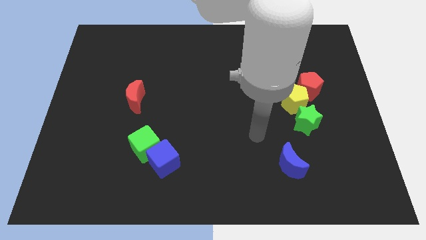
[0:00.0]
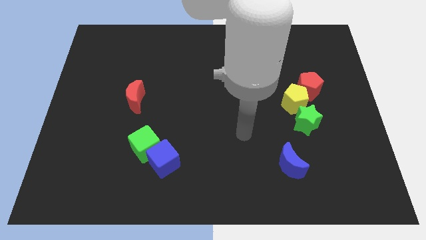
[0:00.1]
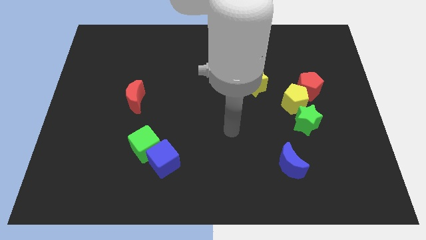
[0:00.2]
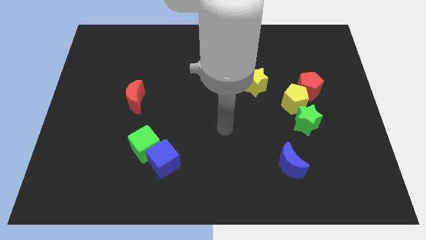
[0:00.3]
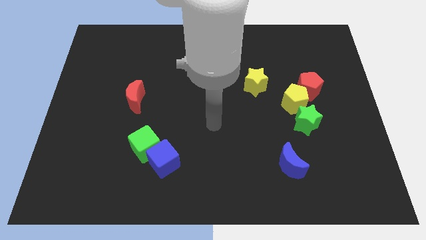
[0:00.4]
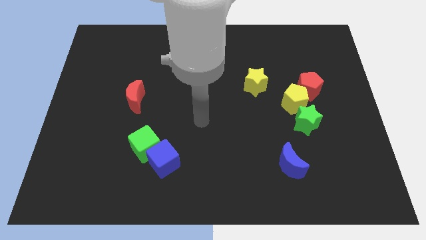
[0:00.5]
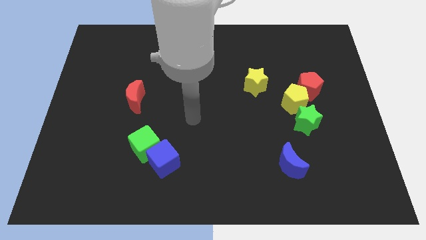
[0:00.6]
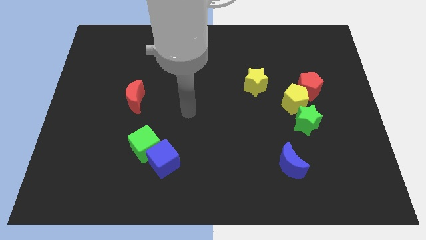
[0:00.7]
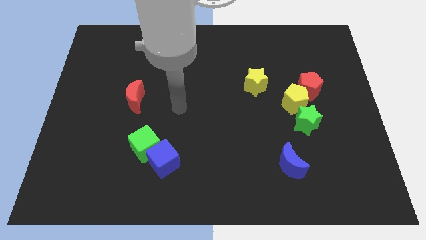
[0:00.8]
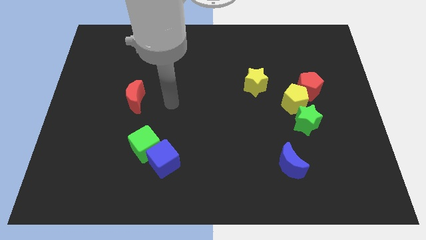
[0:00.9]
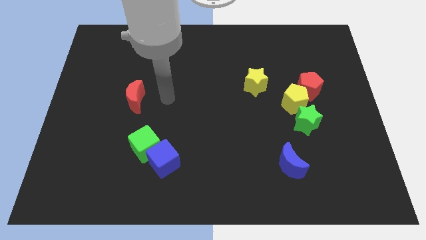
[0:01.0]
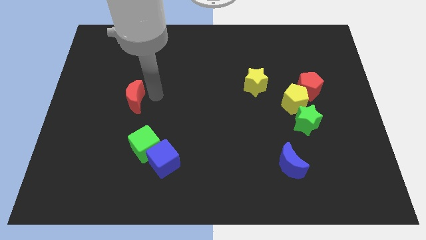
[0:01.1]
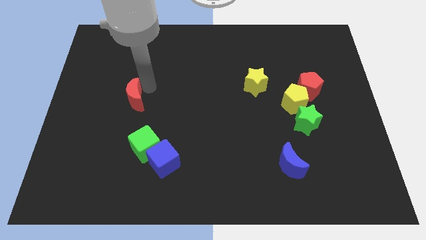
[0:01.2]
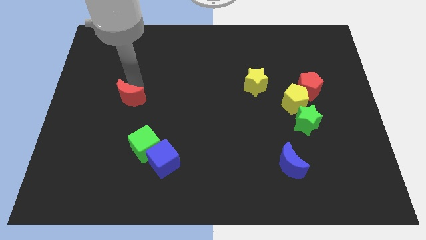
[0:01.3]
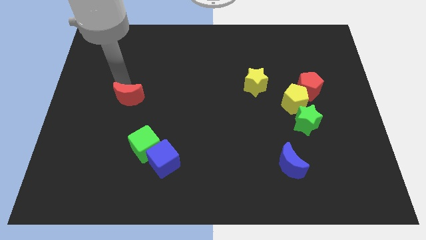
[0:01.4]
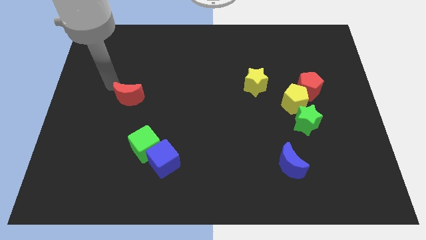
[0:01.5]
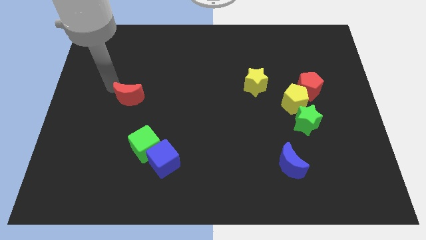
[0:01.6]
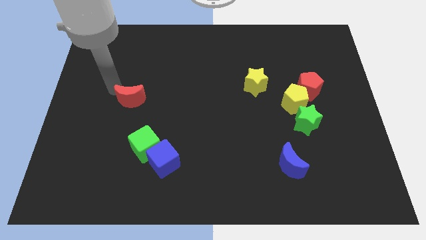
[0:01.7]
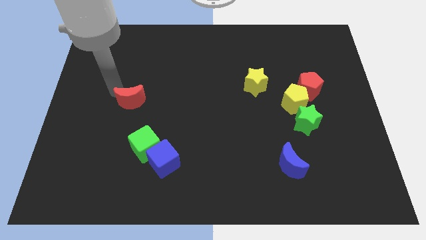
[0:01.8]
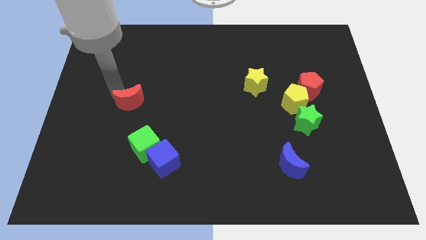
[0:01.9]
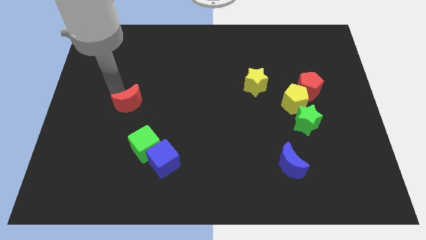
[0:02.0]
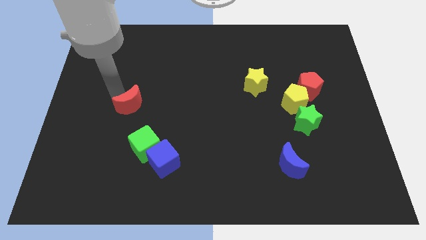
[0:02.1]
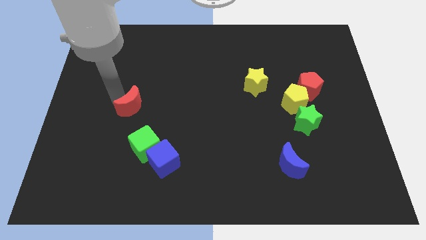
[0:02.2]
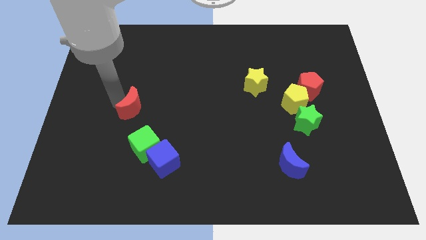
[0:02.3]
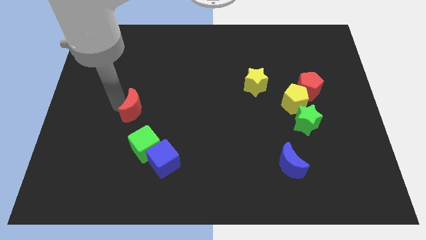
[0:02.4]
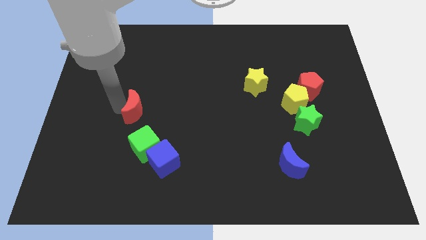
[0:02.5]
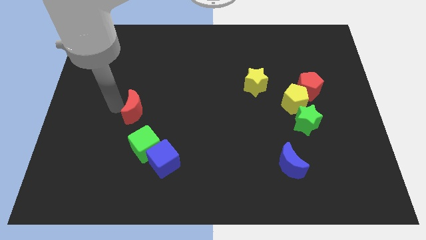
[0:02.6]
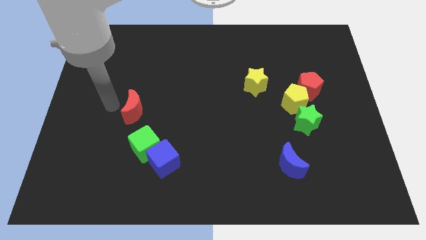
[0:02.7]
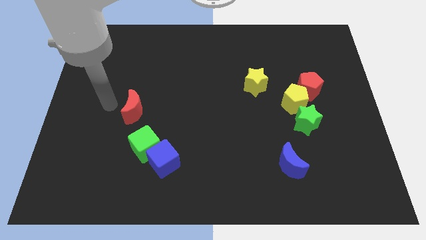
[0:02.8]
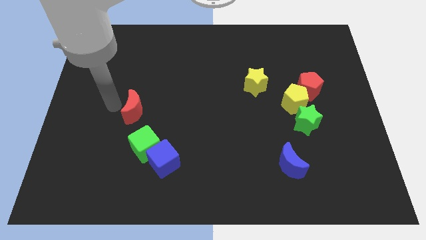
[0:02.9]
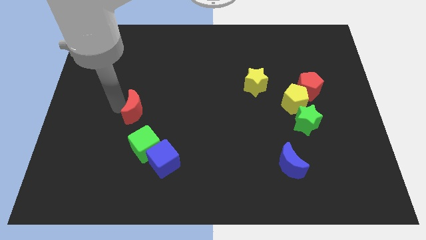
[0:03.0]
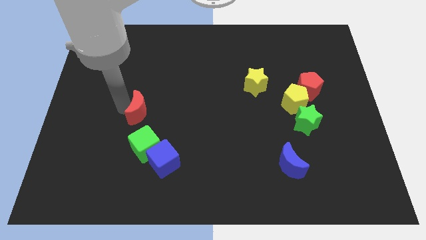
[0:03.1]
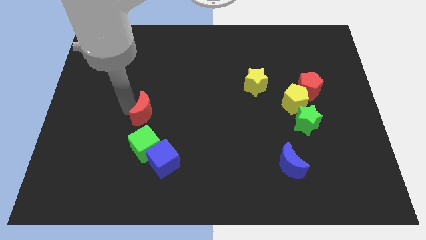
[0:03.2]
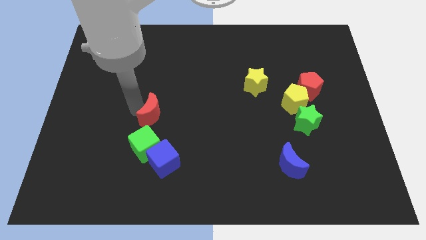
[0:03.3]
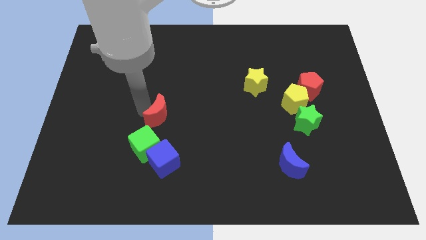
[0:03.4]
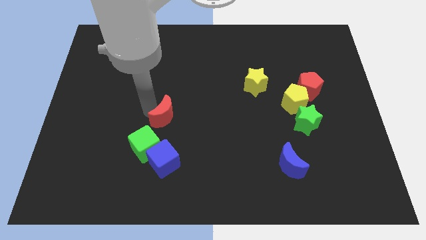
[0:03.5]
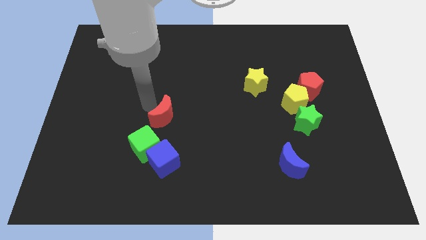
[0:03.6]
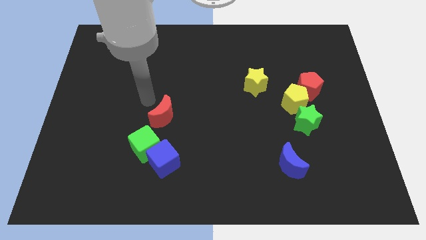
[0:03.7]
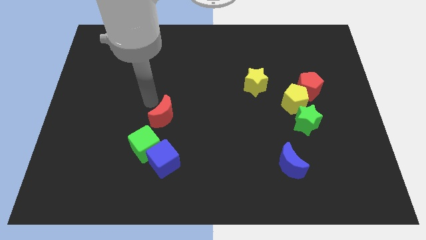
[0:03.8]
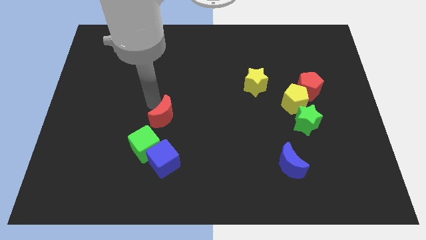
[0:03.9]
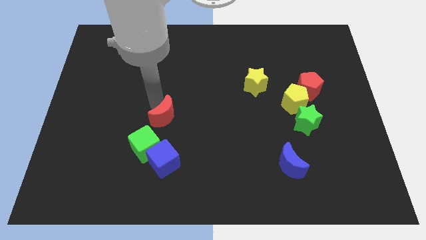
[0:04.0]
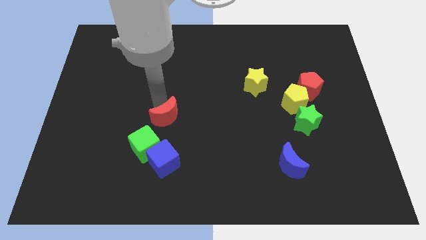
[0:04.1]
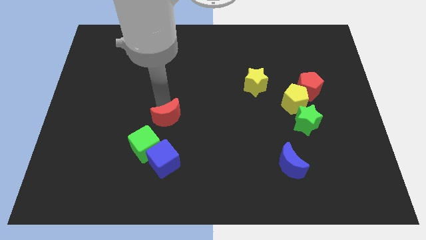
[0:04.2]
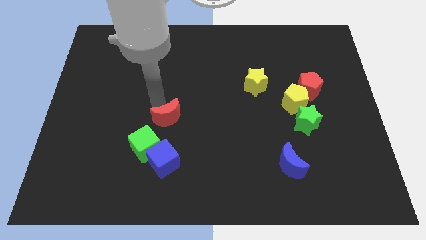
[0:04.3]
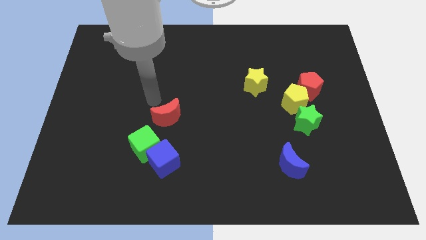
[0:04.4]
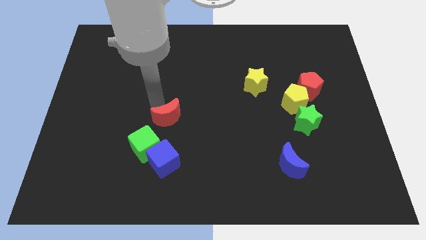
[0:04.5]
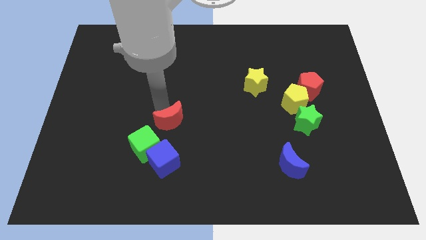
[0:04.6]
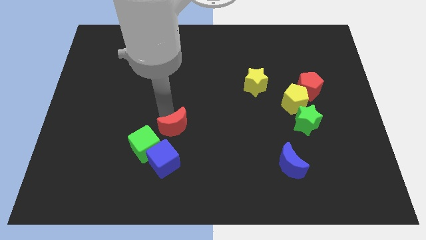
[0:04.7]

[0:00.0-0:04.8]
push the red moon diagonally up and to the right of the blue cube

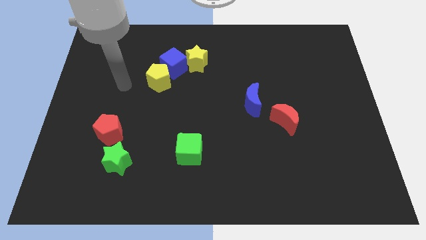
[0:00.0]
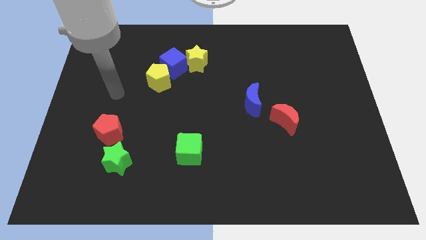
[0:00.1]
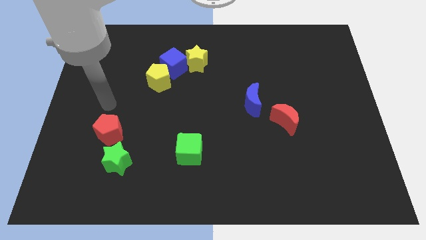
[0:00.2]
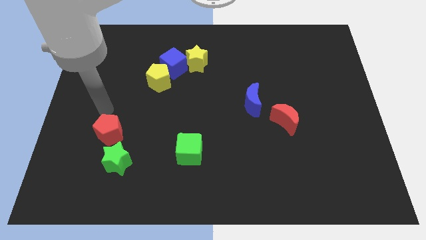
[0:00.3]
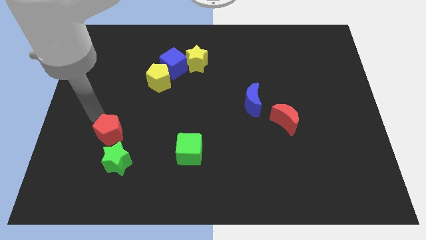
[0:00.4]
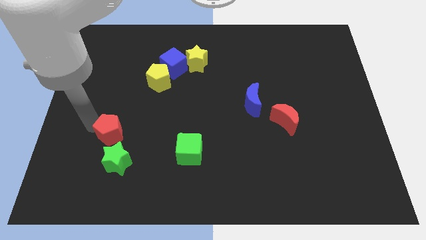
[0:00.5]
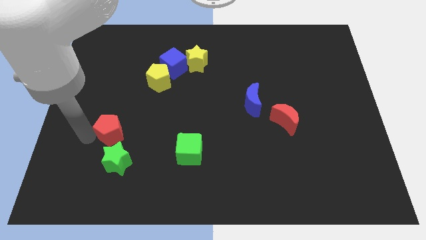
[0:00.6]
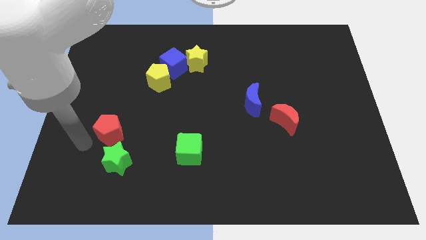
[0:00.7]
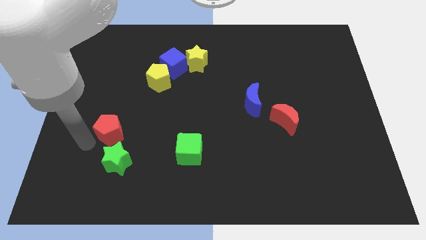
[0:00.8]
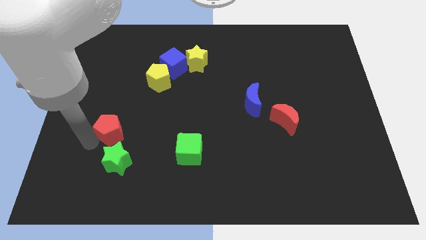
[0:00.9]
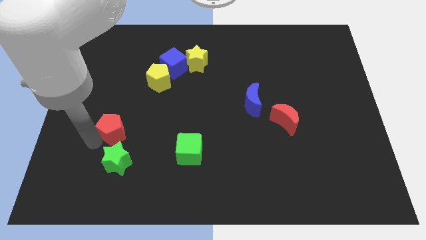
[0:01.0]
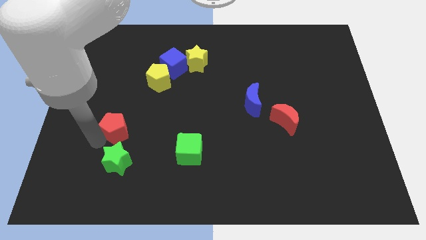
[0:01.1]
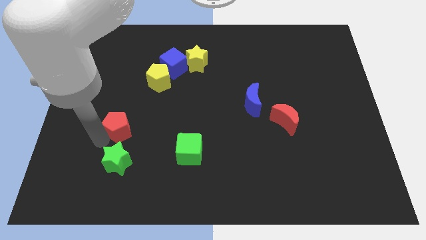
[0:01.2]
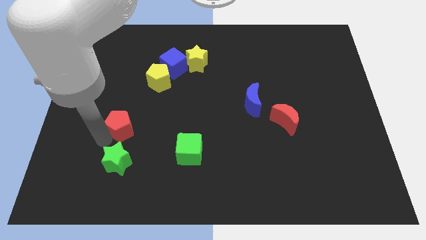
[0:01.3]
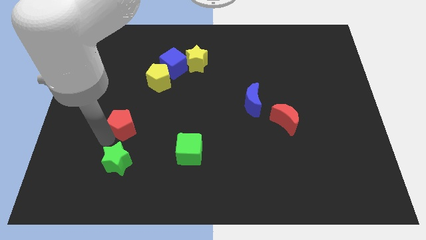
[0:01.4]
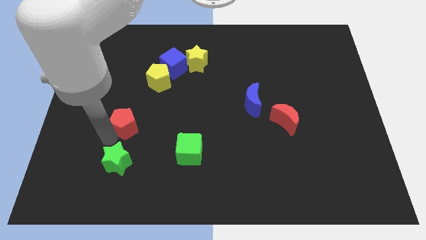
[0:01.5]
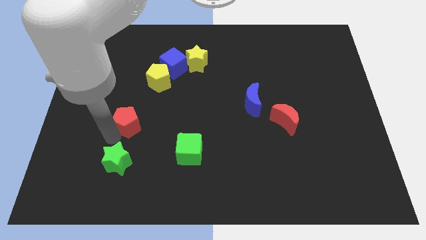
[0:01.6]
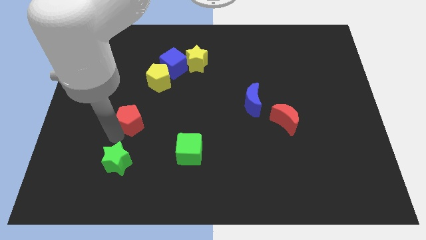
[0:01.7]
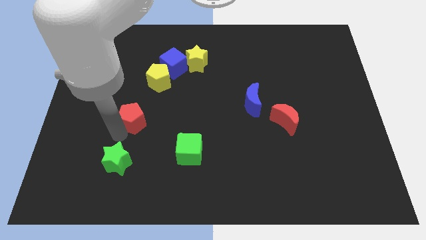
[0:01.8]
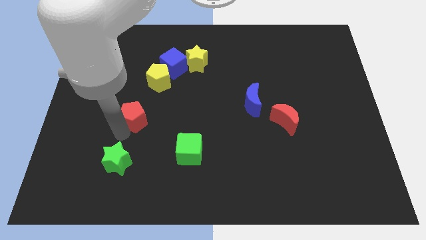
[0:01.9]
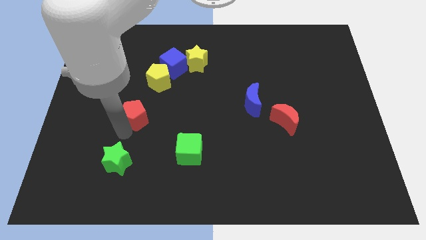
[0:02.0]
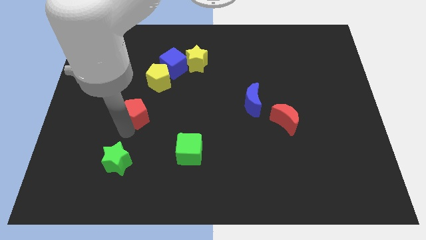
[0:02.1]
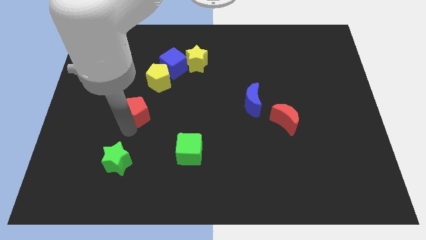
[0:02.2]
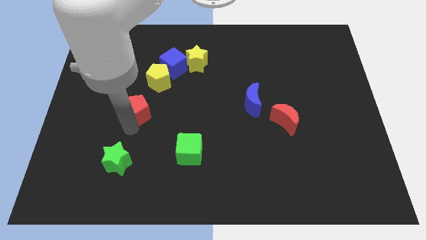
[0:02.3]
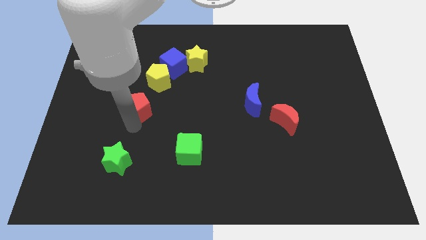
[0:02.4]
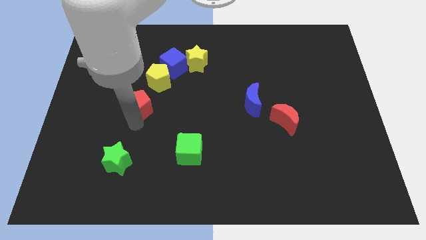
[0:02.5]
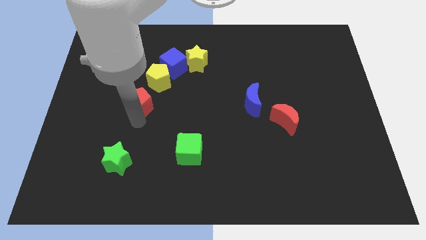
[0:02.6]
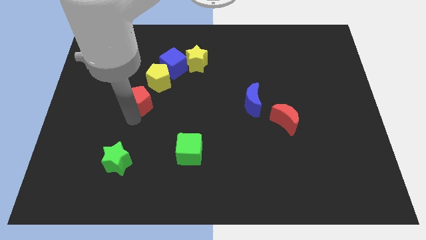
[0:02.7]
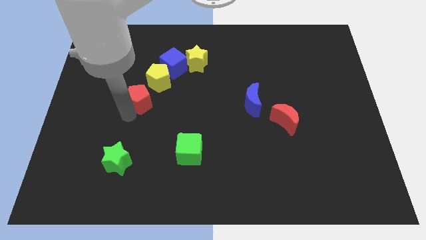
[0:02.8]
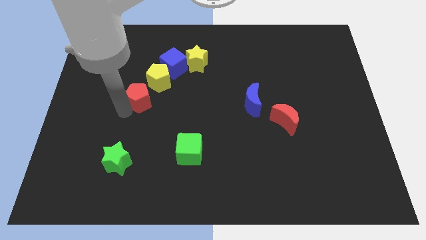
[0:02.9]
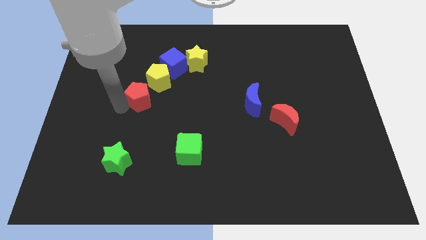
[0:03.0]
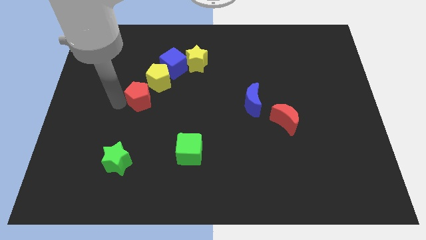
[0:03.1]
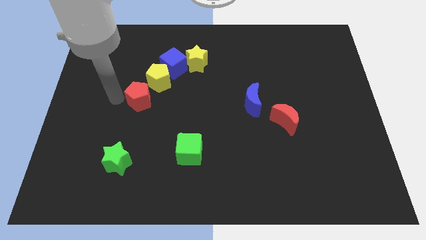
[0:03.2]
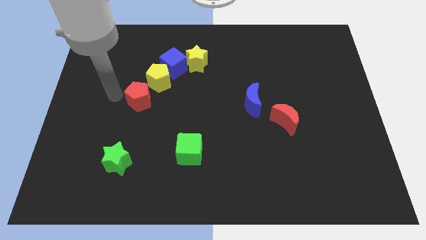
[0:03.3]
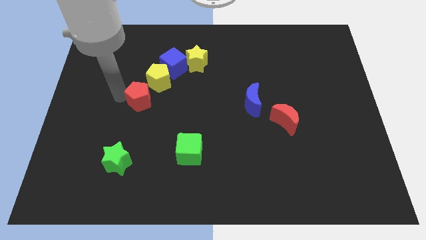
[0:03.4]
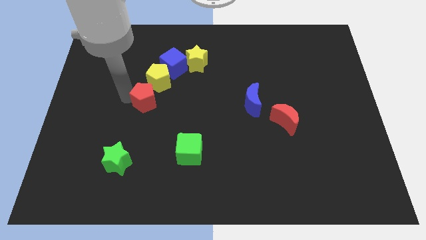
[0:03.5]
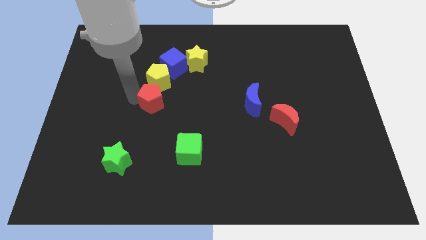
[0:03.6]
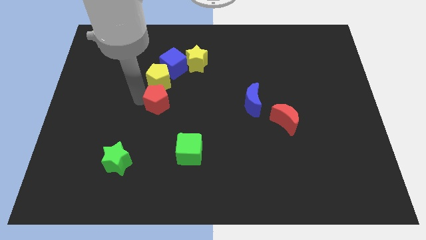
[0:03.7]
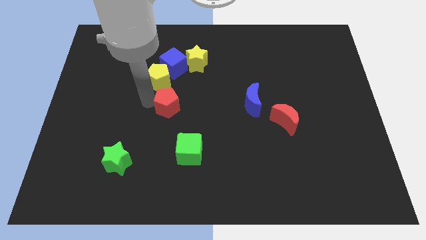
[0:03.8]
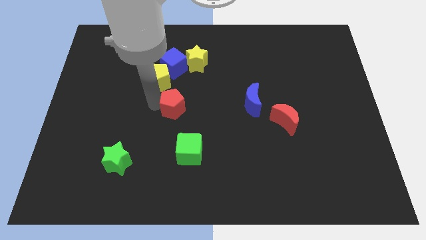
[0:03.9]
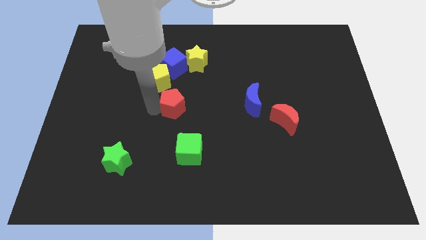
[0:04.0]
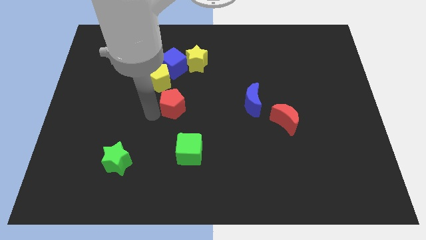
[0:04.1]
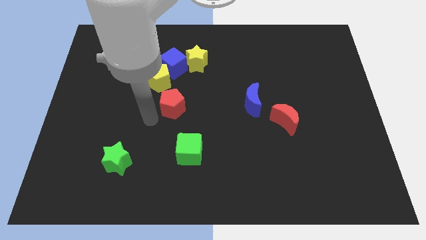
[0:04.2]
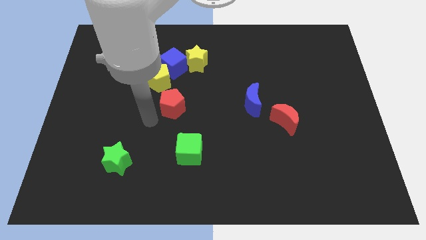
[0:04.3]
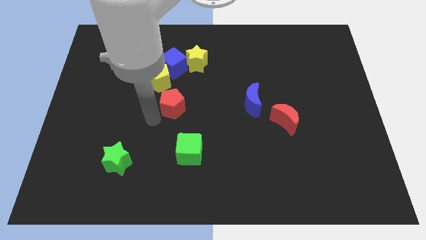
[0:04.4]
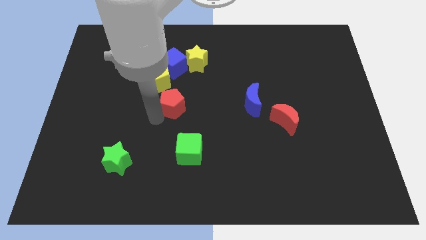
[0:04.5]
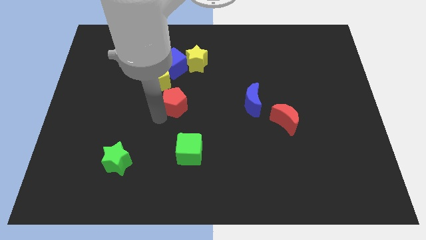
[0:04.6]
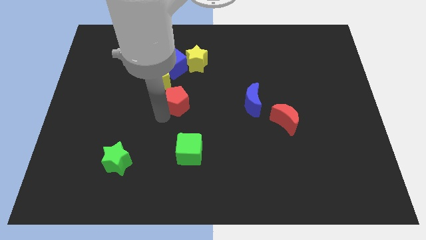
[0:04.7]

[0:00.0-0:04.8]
put the red pentagon to the bottom side of the yellow star
